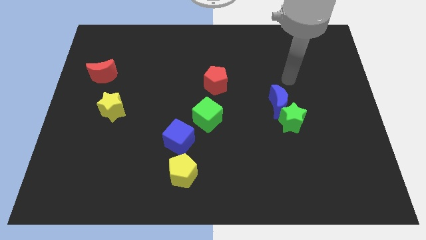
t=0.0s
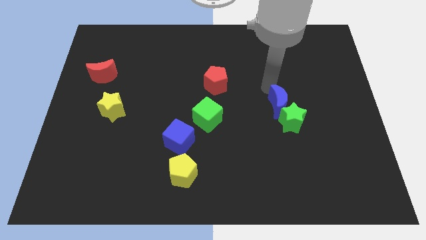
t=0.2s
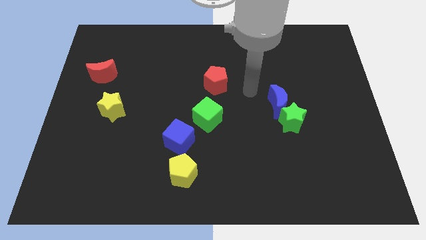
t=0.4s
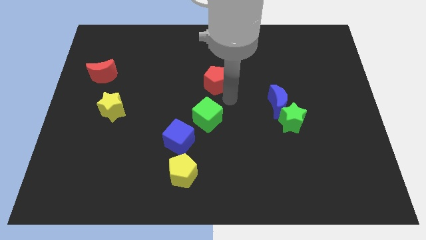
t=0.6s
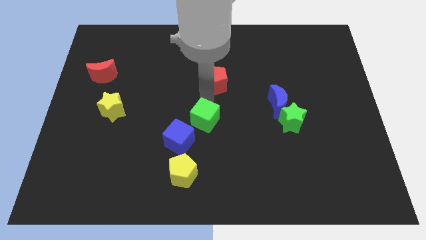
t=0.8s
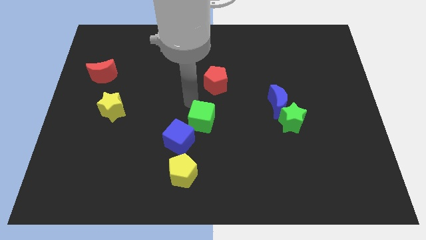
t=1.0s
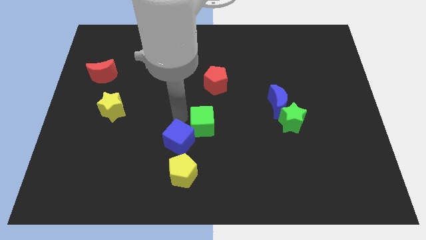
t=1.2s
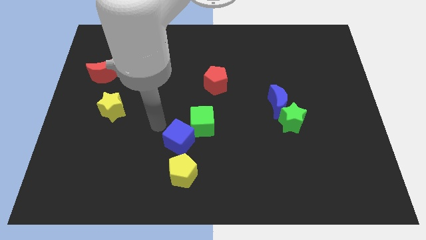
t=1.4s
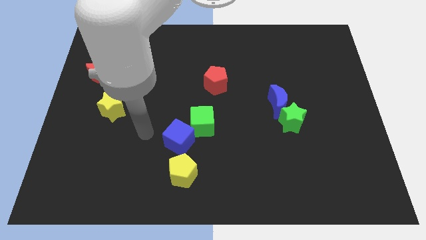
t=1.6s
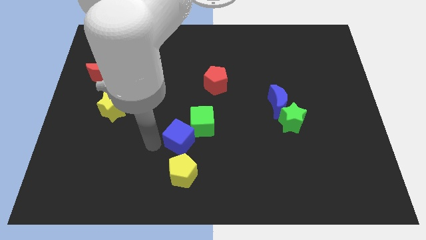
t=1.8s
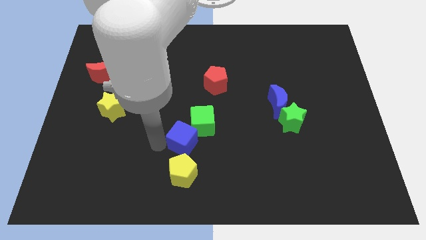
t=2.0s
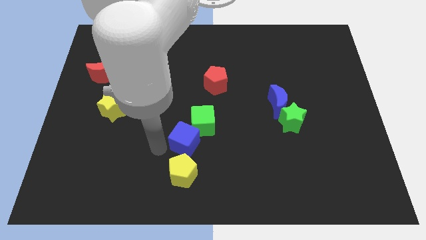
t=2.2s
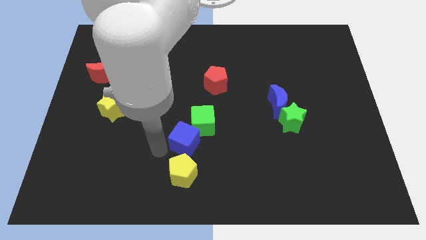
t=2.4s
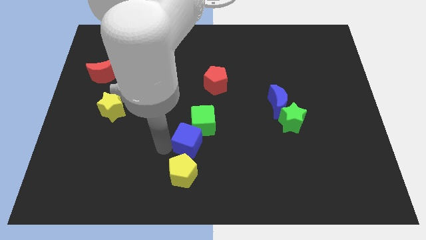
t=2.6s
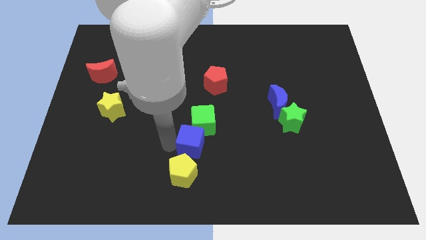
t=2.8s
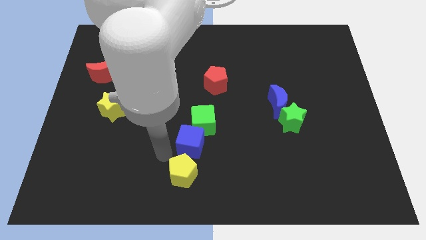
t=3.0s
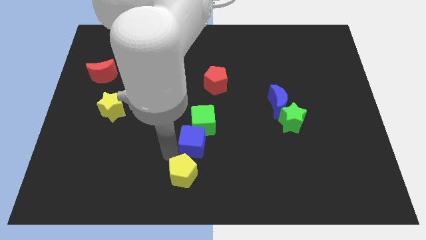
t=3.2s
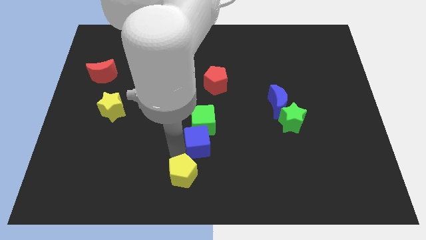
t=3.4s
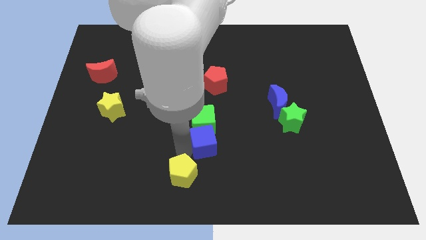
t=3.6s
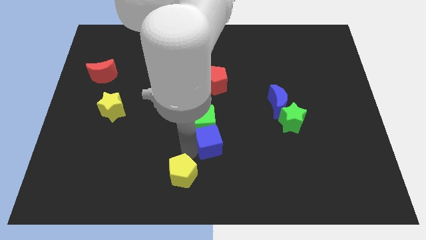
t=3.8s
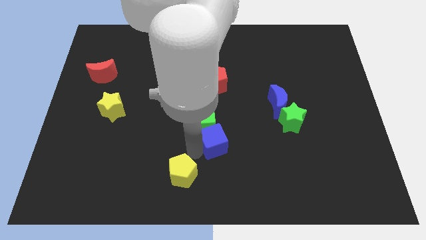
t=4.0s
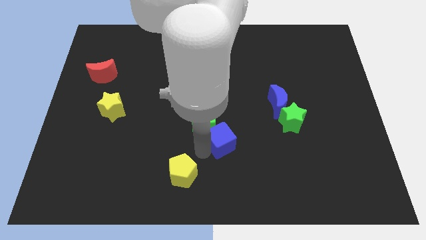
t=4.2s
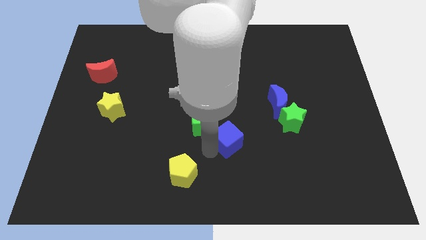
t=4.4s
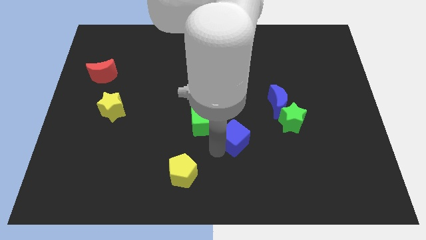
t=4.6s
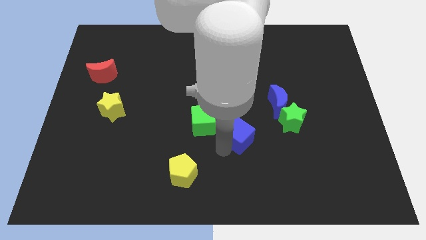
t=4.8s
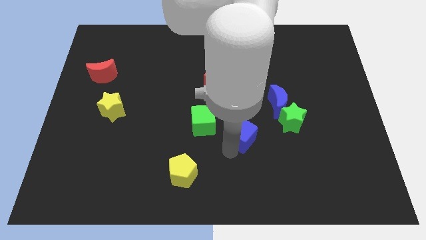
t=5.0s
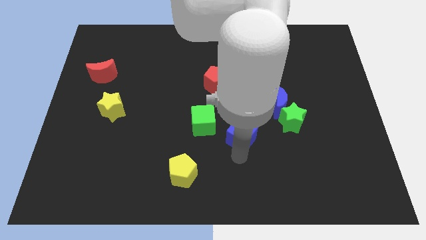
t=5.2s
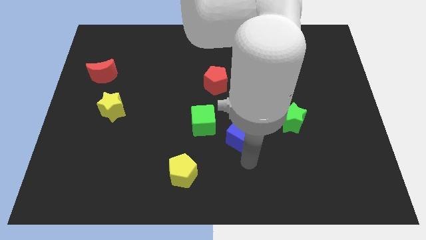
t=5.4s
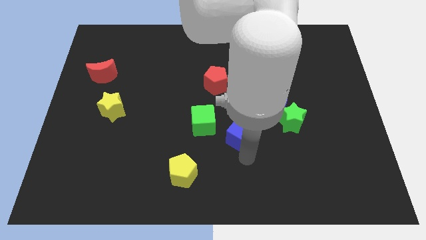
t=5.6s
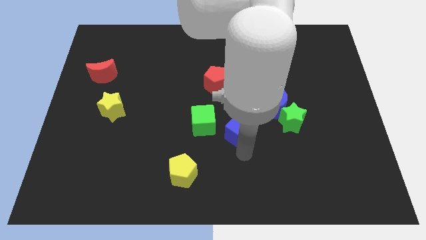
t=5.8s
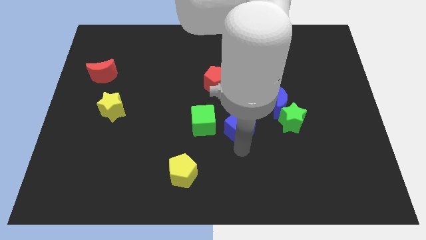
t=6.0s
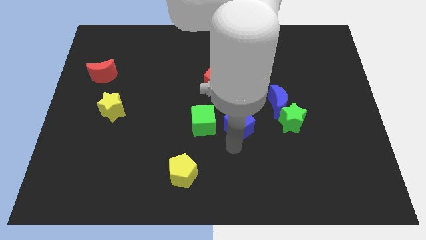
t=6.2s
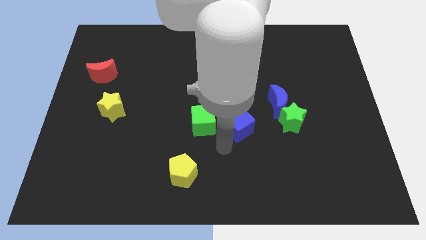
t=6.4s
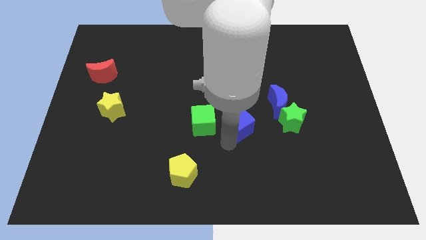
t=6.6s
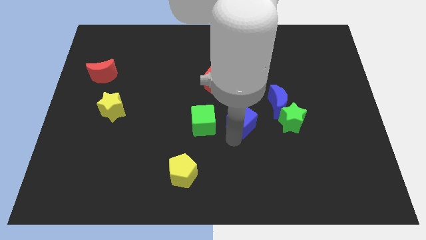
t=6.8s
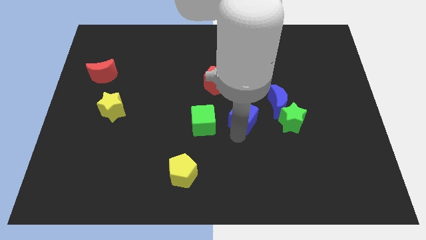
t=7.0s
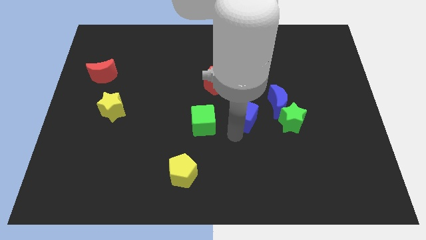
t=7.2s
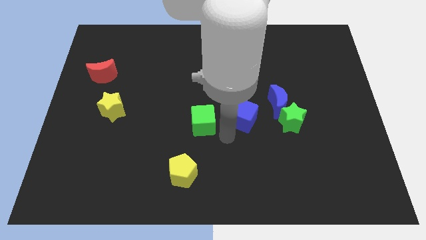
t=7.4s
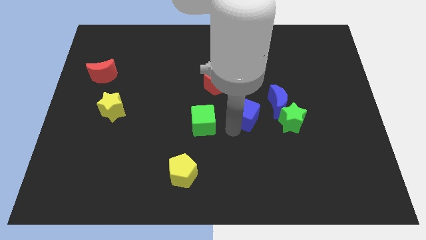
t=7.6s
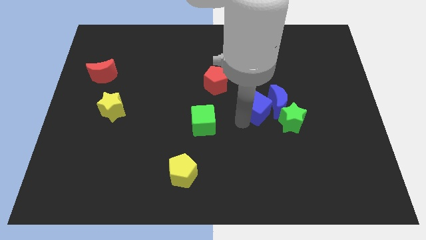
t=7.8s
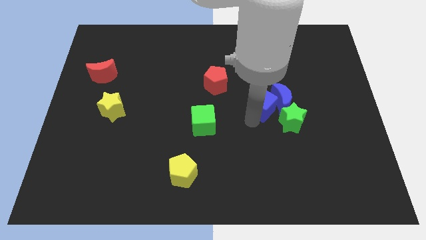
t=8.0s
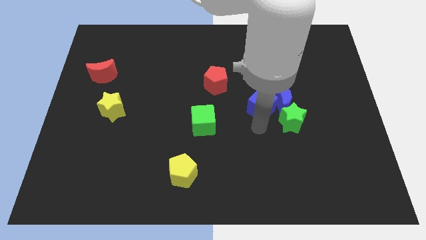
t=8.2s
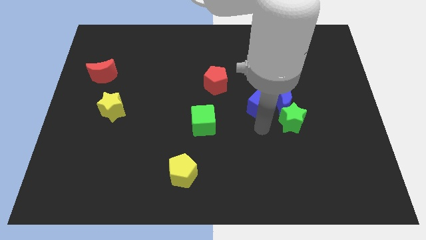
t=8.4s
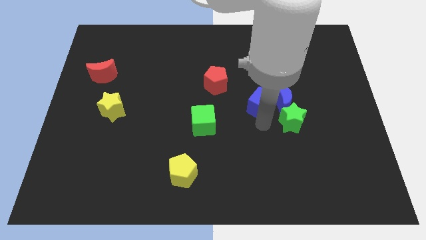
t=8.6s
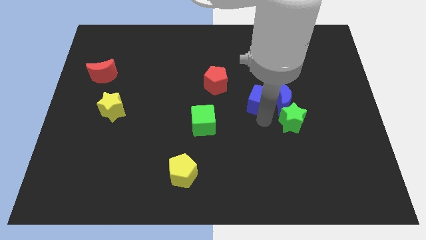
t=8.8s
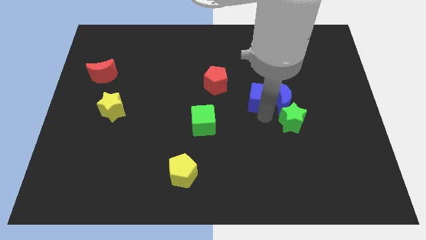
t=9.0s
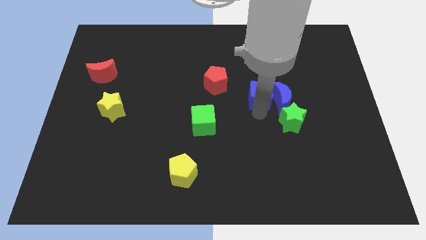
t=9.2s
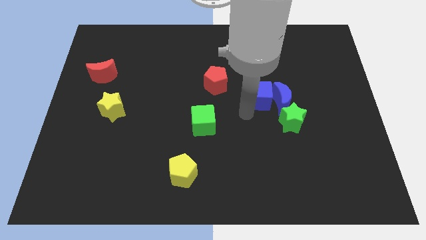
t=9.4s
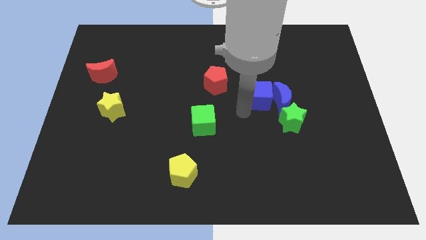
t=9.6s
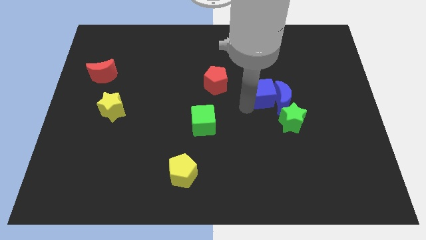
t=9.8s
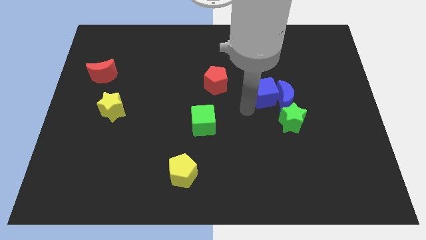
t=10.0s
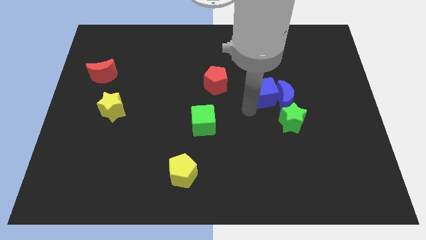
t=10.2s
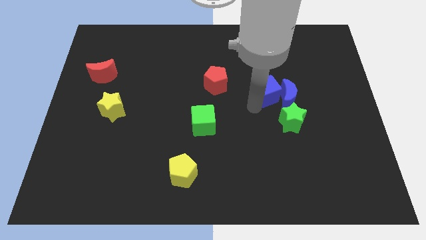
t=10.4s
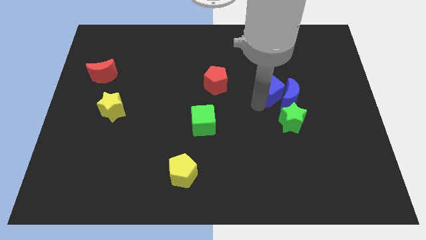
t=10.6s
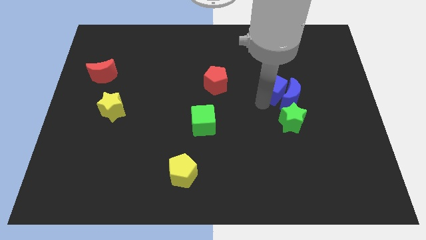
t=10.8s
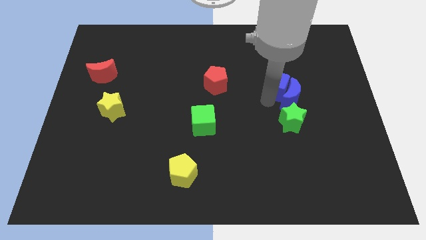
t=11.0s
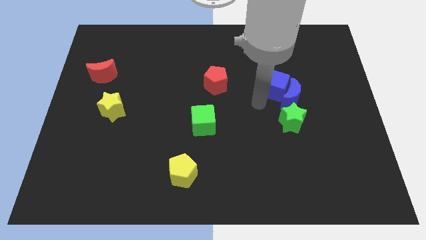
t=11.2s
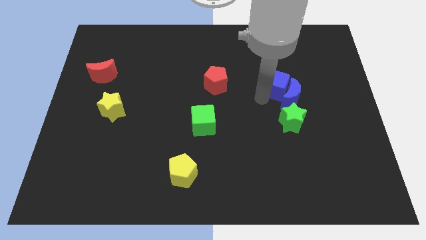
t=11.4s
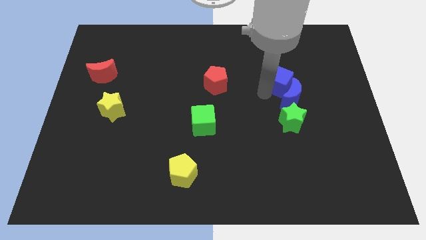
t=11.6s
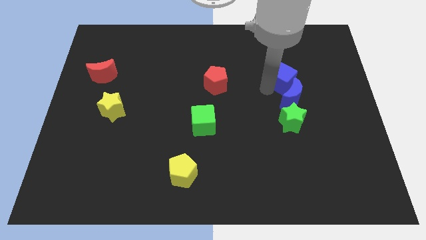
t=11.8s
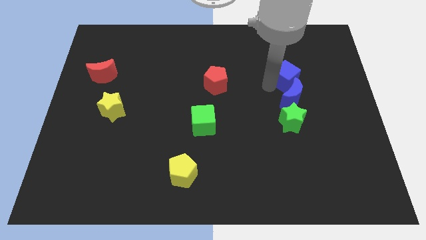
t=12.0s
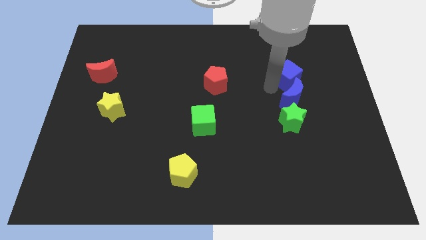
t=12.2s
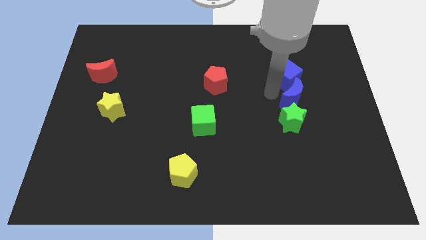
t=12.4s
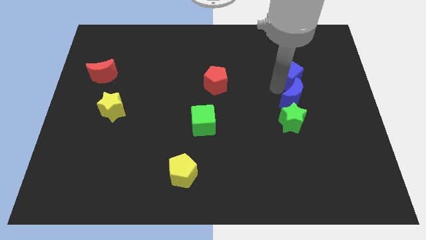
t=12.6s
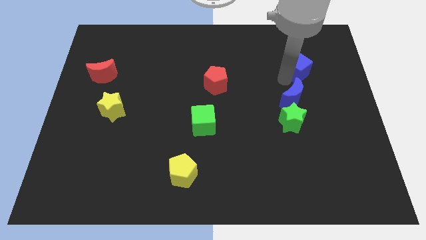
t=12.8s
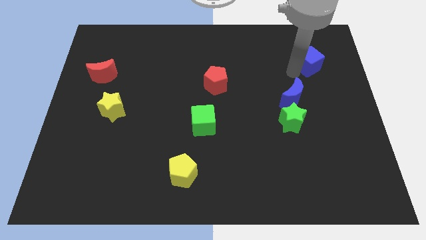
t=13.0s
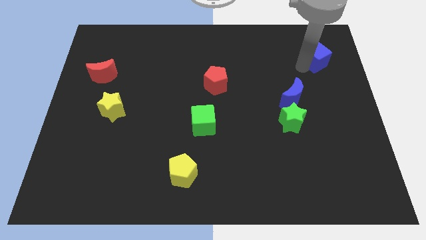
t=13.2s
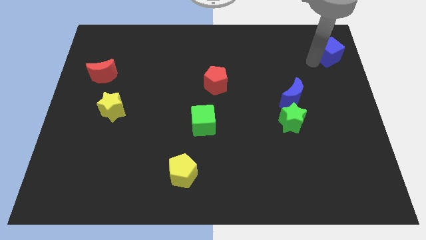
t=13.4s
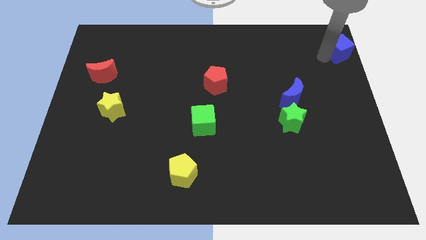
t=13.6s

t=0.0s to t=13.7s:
put the blue cube to the top right
